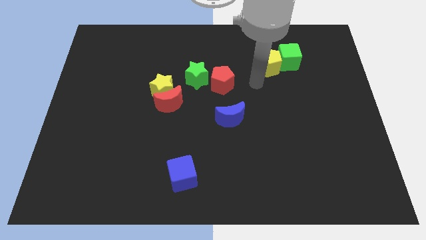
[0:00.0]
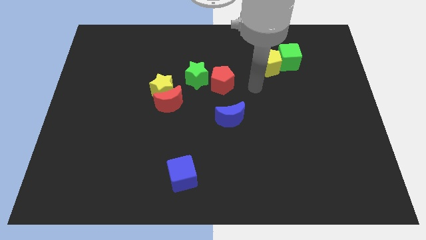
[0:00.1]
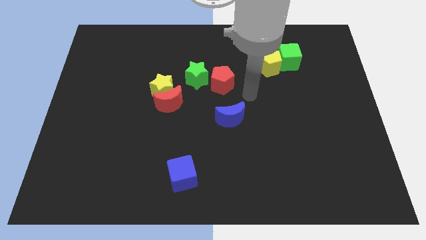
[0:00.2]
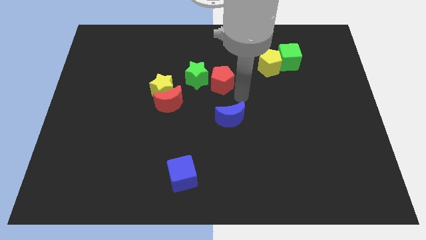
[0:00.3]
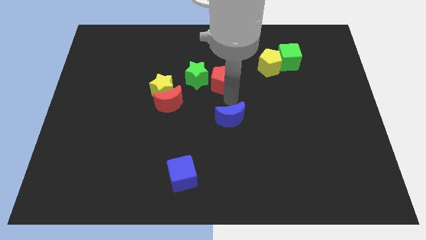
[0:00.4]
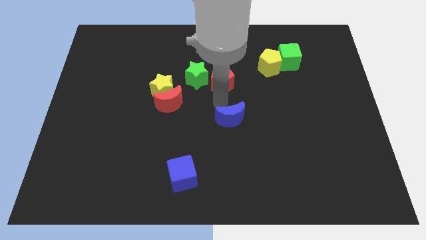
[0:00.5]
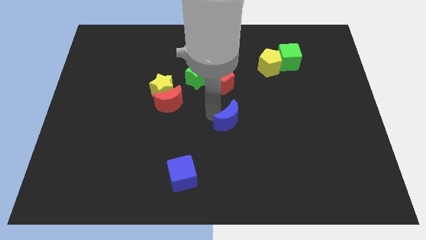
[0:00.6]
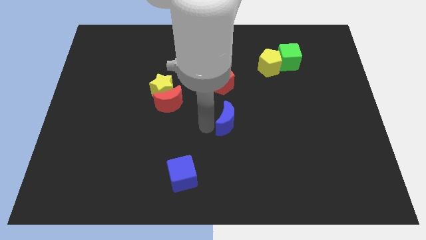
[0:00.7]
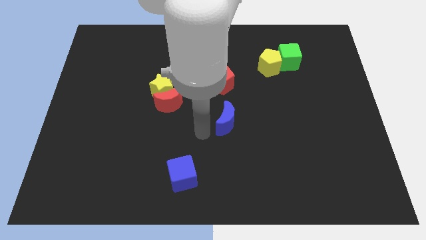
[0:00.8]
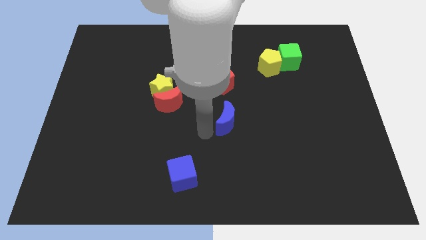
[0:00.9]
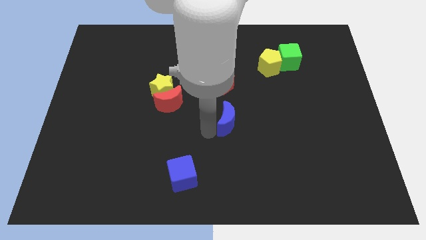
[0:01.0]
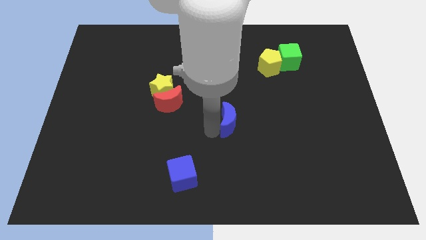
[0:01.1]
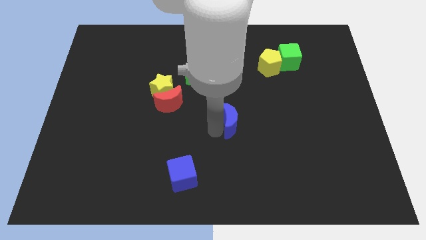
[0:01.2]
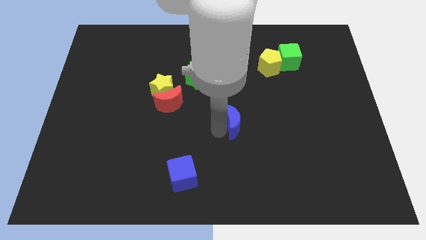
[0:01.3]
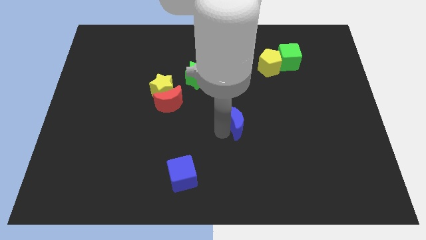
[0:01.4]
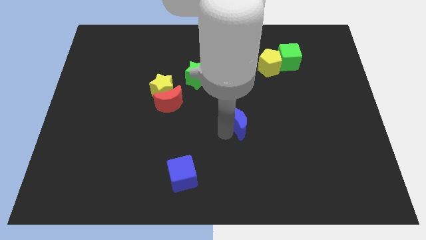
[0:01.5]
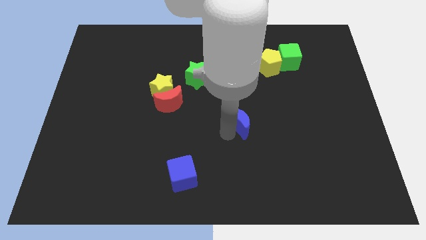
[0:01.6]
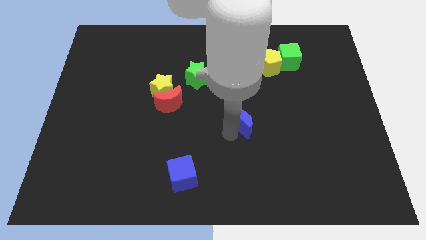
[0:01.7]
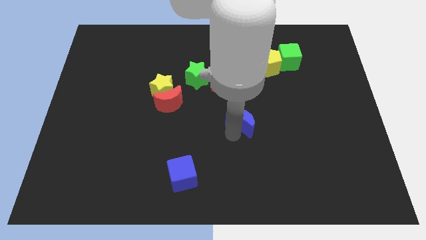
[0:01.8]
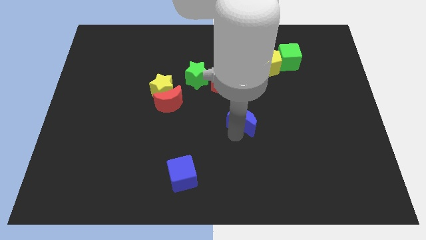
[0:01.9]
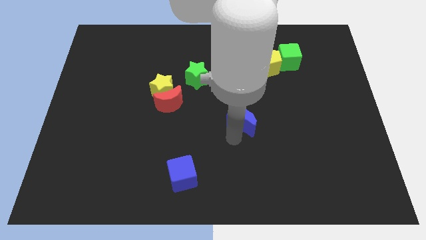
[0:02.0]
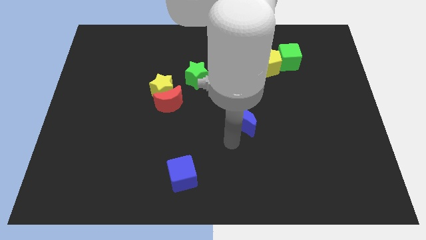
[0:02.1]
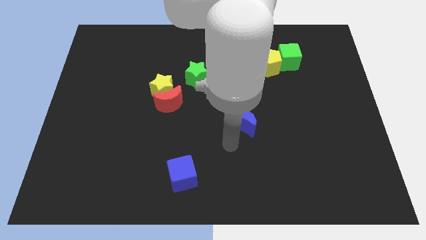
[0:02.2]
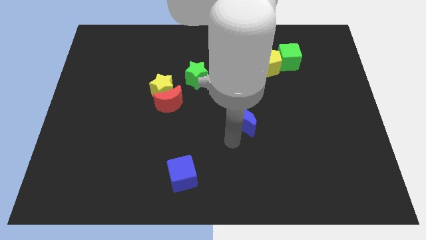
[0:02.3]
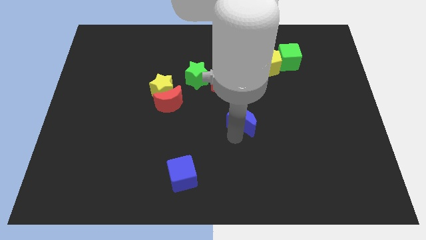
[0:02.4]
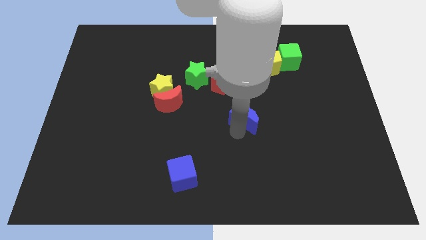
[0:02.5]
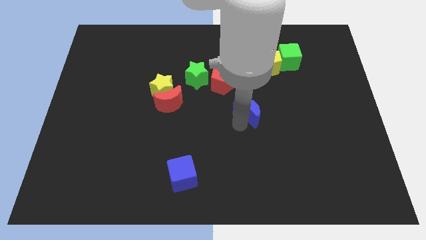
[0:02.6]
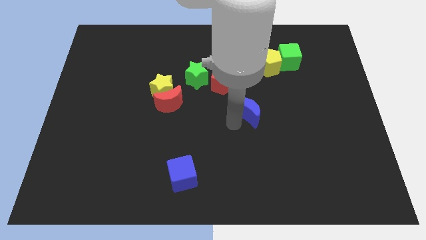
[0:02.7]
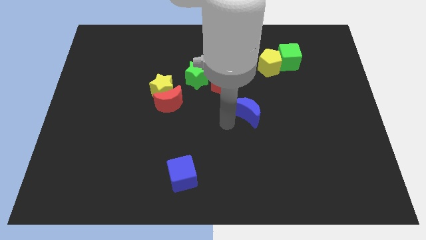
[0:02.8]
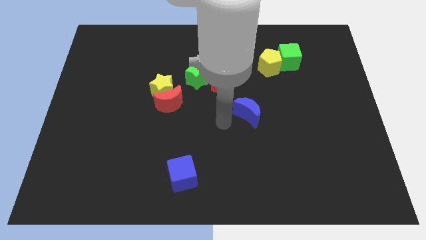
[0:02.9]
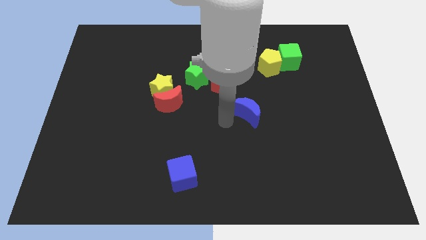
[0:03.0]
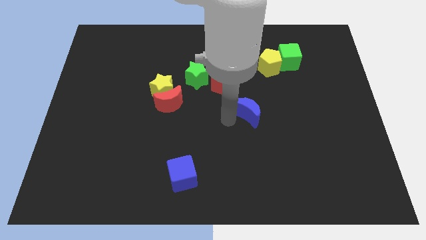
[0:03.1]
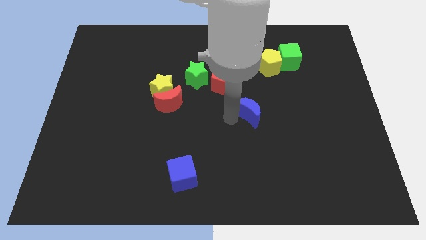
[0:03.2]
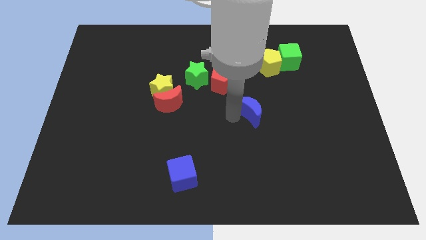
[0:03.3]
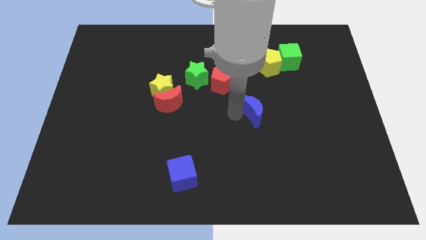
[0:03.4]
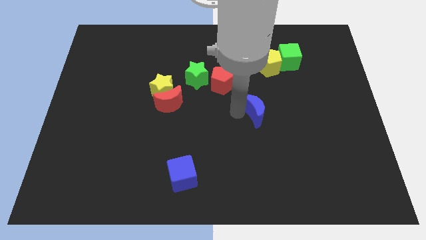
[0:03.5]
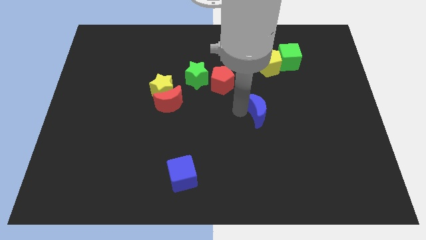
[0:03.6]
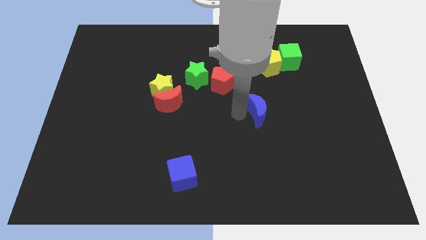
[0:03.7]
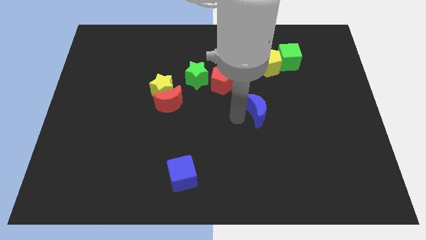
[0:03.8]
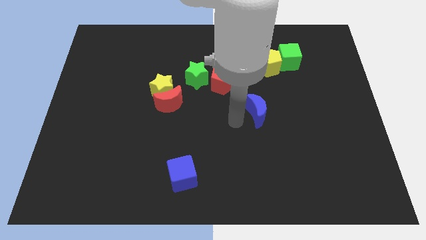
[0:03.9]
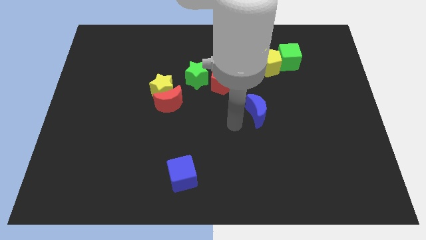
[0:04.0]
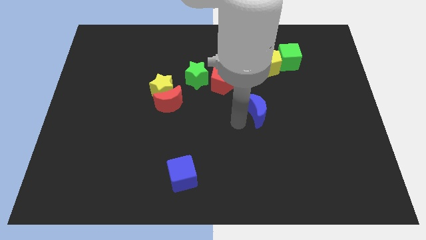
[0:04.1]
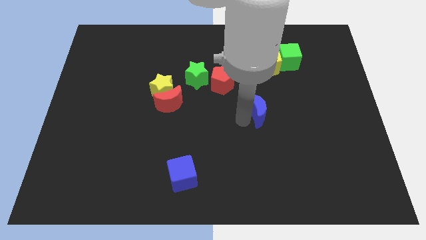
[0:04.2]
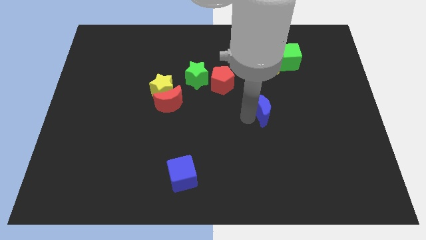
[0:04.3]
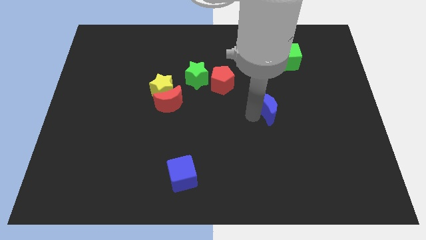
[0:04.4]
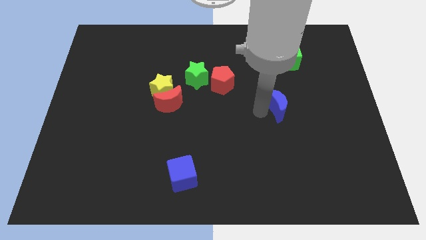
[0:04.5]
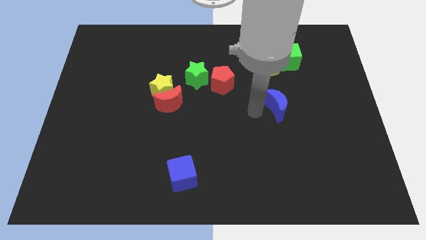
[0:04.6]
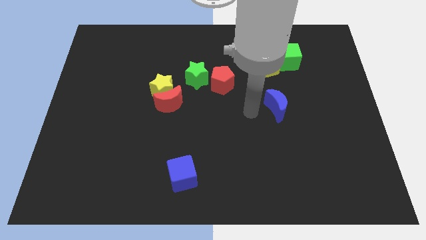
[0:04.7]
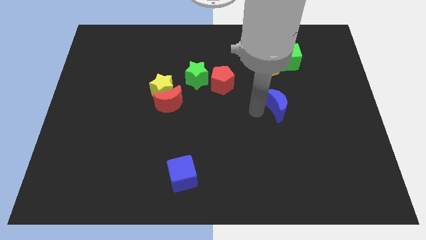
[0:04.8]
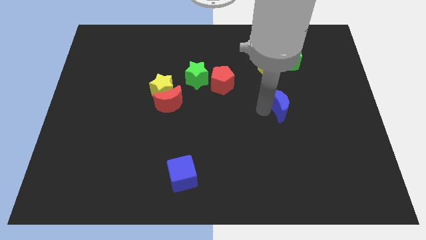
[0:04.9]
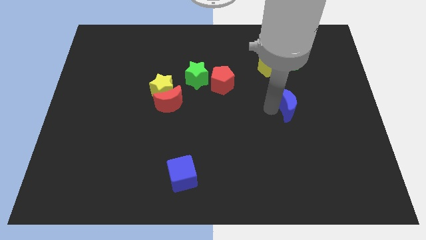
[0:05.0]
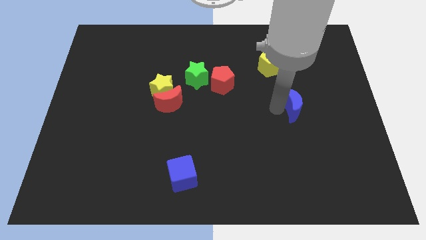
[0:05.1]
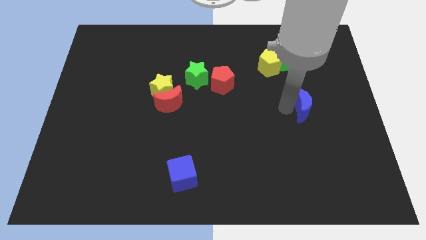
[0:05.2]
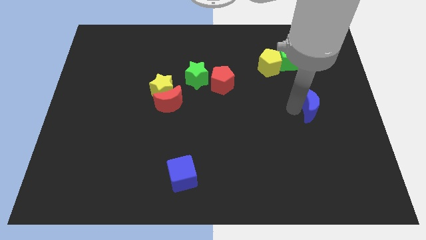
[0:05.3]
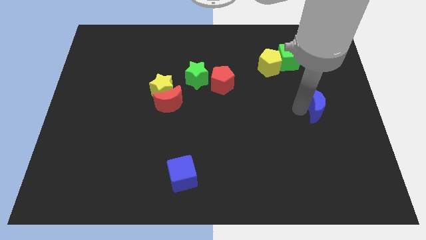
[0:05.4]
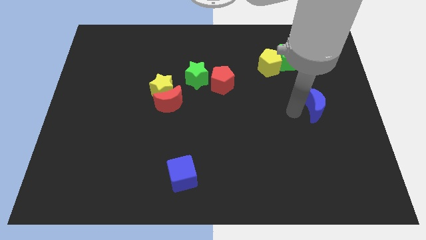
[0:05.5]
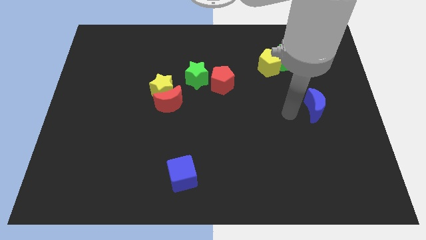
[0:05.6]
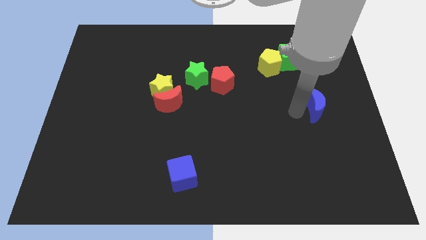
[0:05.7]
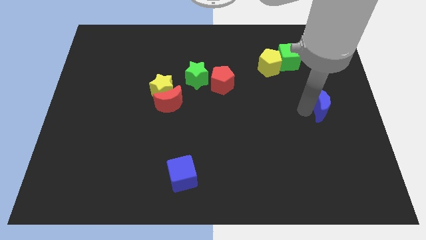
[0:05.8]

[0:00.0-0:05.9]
push the blue moon to the center right

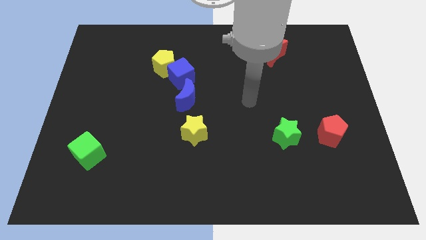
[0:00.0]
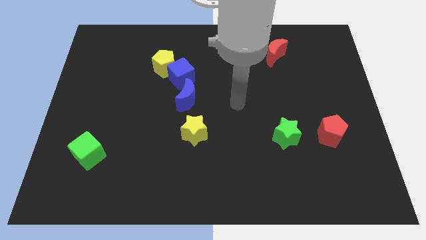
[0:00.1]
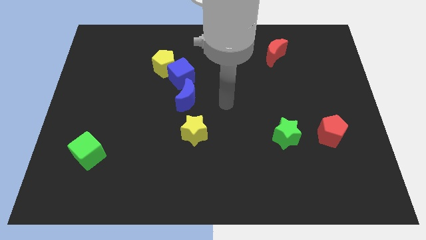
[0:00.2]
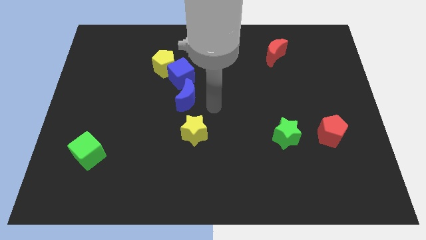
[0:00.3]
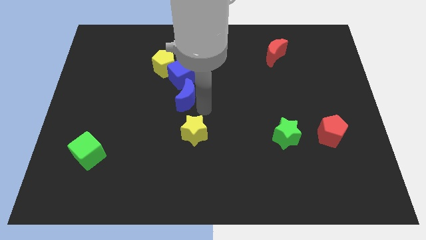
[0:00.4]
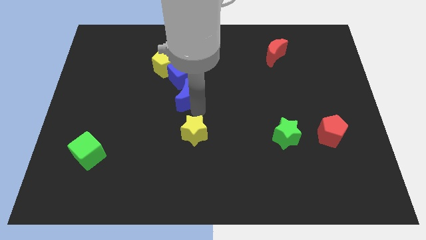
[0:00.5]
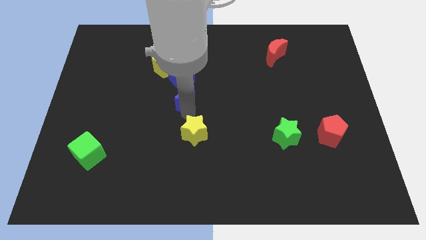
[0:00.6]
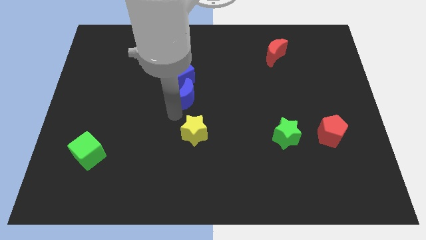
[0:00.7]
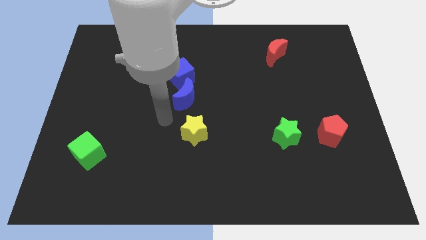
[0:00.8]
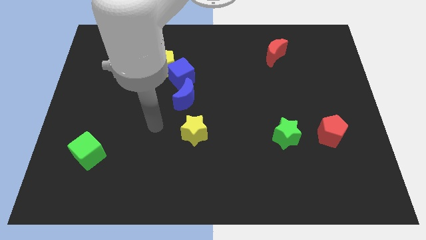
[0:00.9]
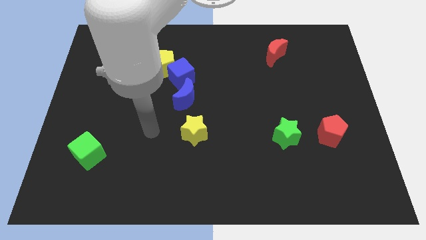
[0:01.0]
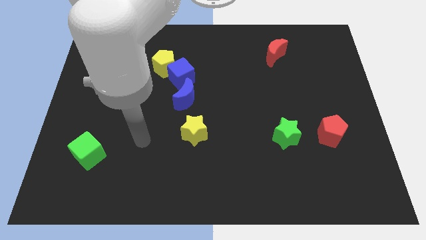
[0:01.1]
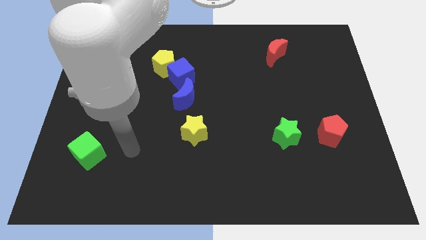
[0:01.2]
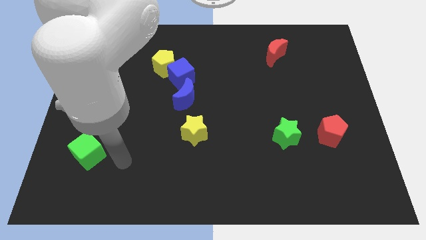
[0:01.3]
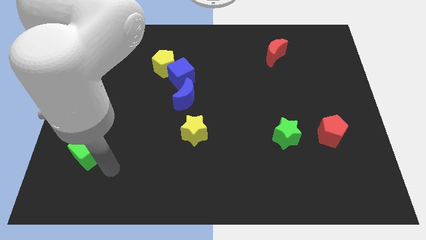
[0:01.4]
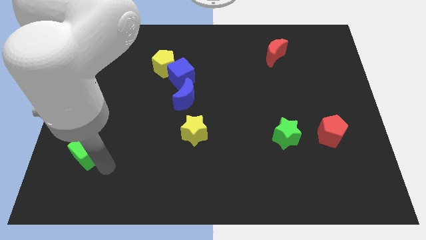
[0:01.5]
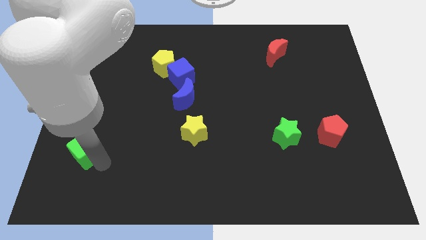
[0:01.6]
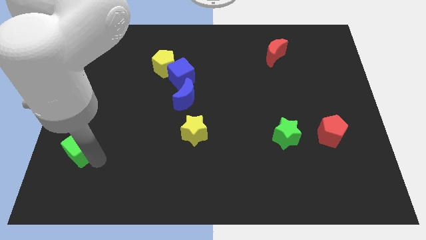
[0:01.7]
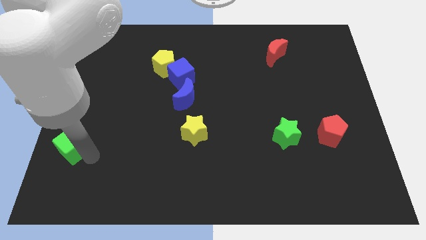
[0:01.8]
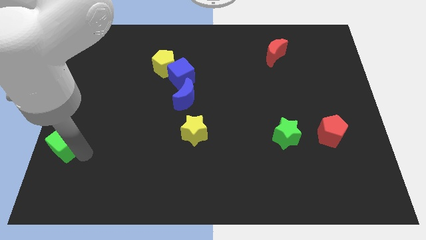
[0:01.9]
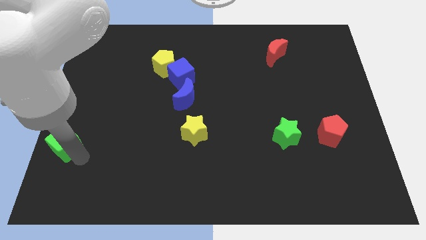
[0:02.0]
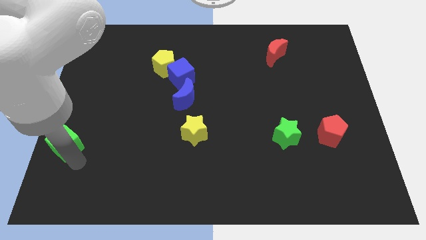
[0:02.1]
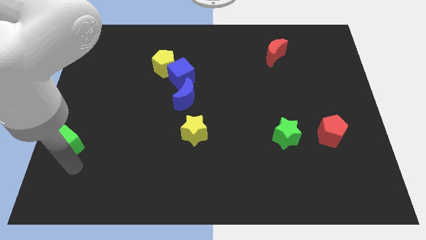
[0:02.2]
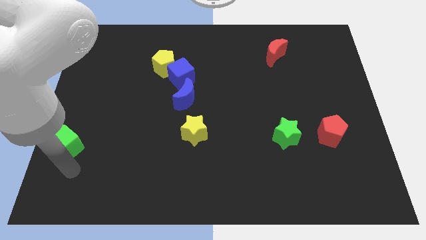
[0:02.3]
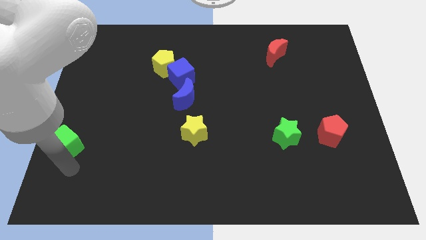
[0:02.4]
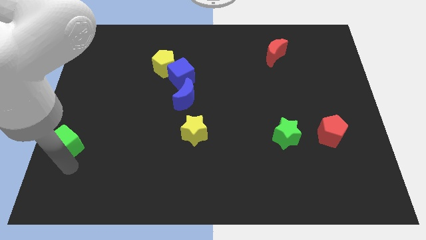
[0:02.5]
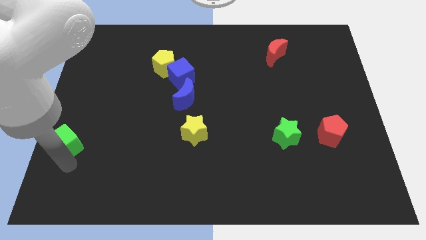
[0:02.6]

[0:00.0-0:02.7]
push the green cube to the left side of the board
